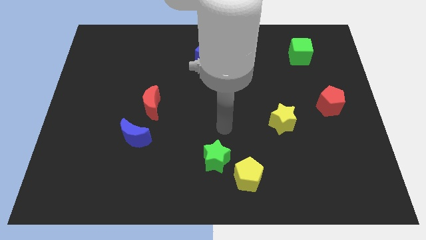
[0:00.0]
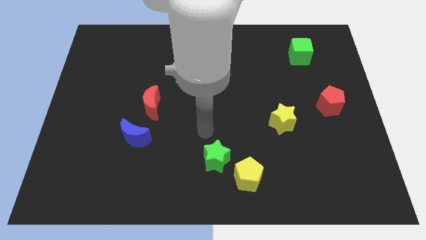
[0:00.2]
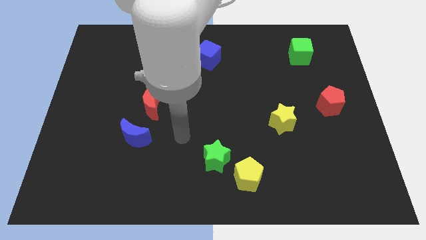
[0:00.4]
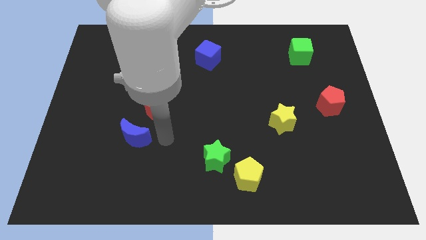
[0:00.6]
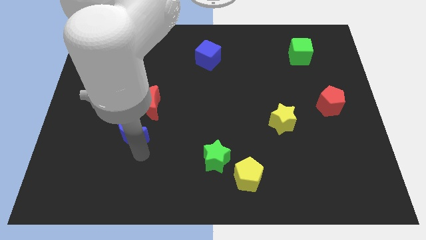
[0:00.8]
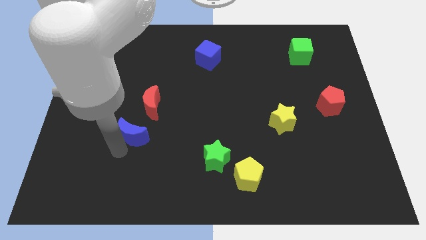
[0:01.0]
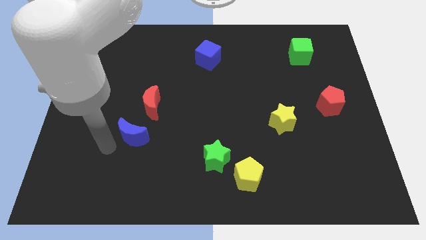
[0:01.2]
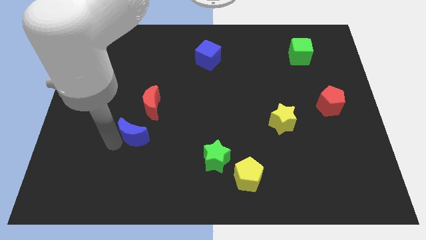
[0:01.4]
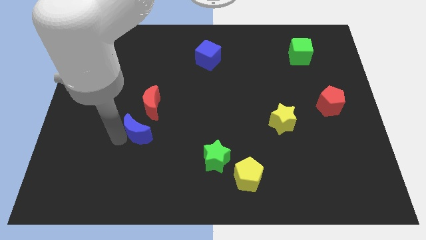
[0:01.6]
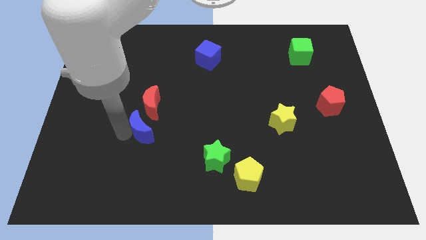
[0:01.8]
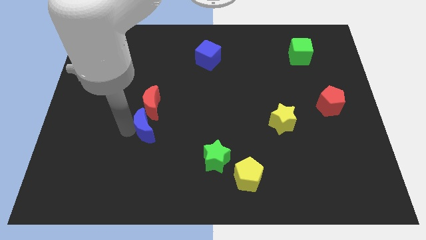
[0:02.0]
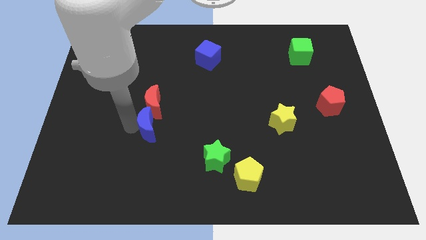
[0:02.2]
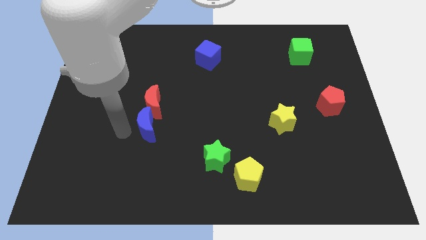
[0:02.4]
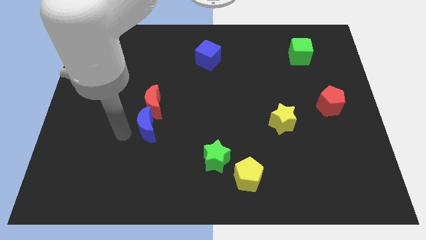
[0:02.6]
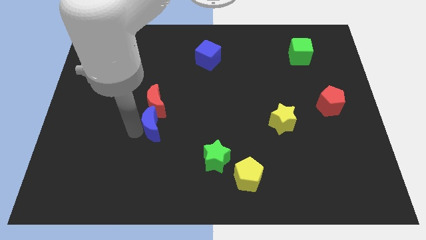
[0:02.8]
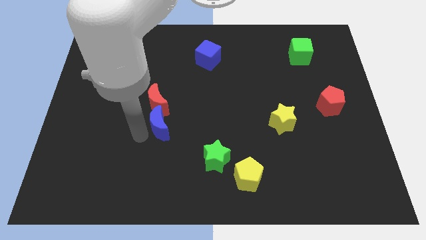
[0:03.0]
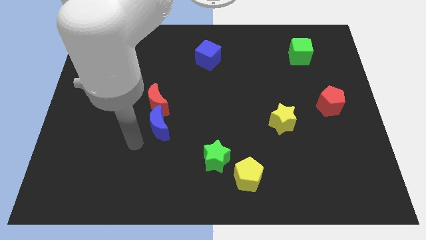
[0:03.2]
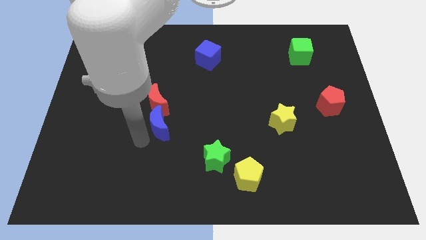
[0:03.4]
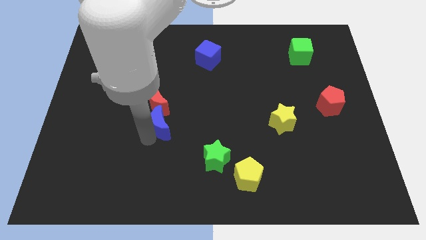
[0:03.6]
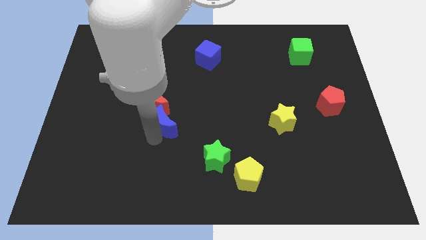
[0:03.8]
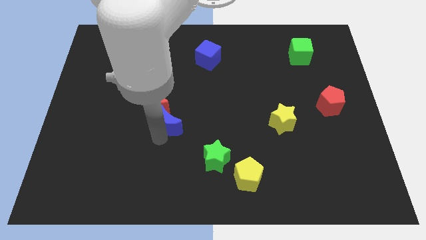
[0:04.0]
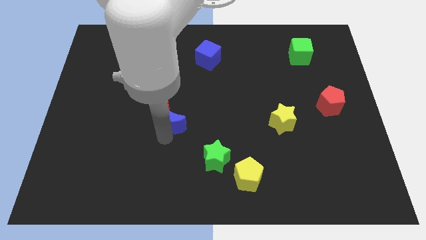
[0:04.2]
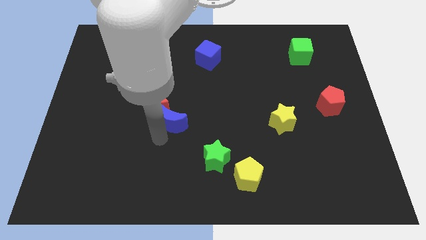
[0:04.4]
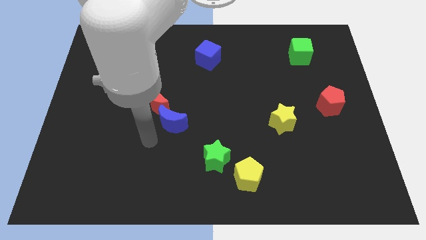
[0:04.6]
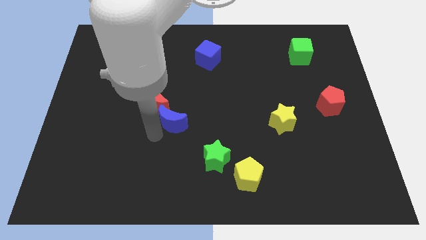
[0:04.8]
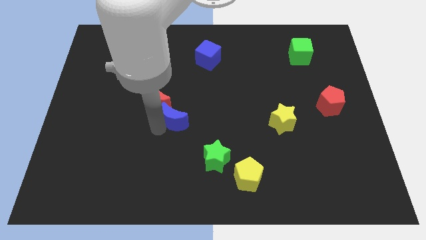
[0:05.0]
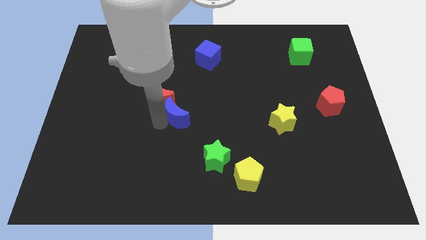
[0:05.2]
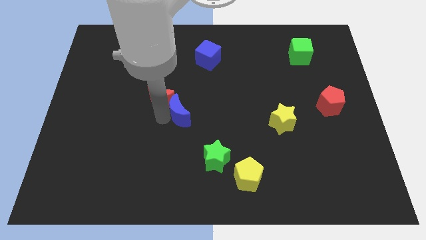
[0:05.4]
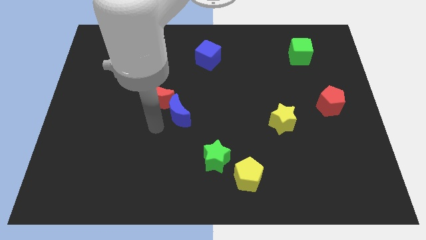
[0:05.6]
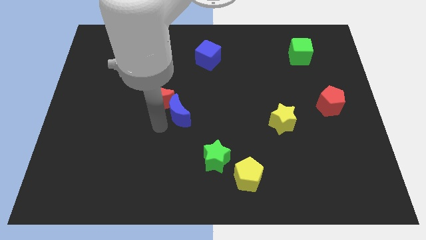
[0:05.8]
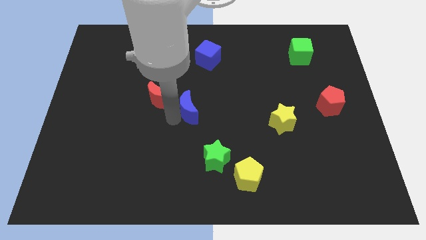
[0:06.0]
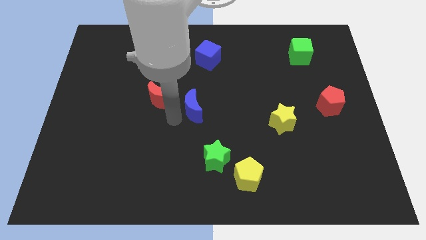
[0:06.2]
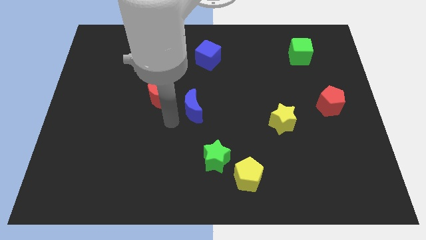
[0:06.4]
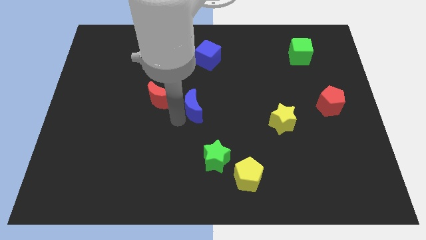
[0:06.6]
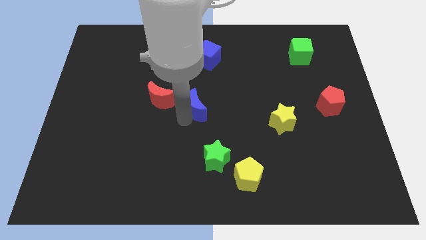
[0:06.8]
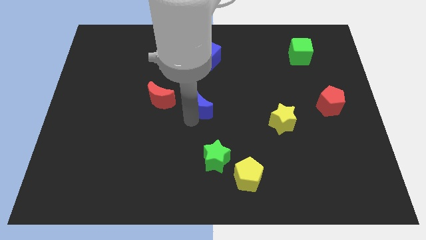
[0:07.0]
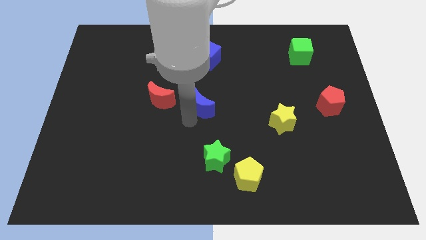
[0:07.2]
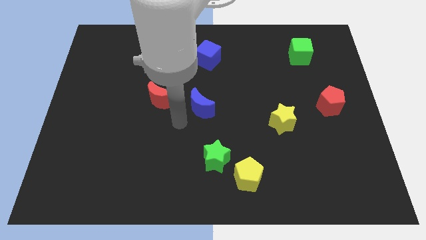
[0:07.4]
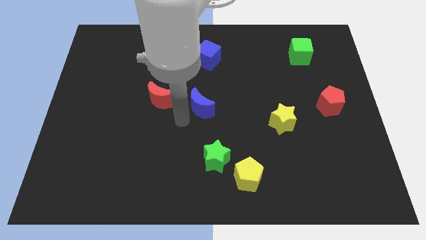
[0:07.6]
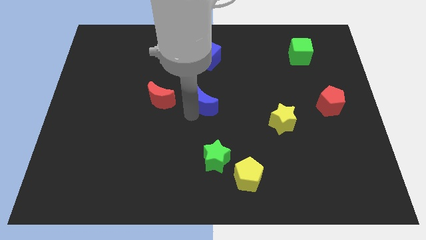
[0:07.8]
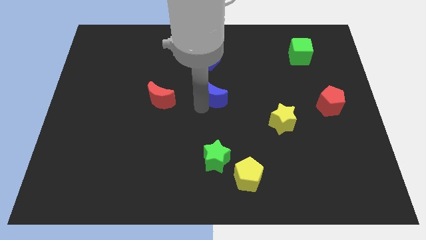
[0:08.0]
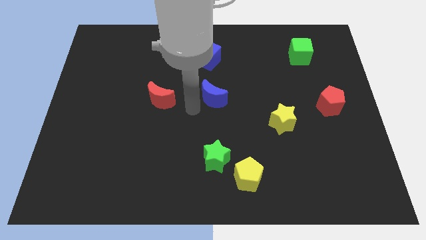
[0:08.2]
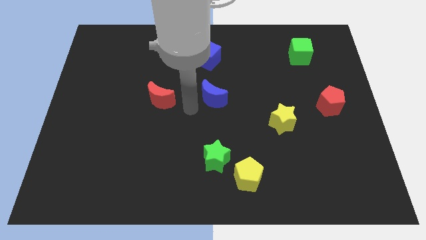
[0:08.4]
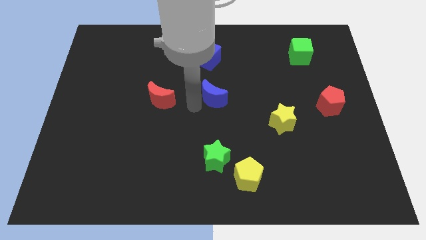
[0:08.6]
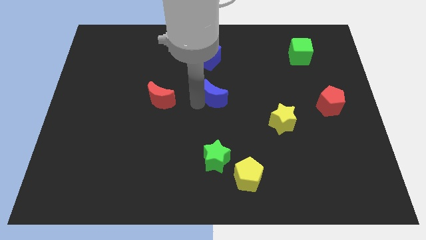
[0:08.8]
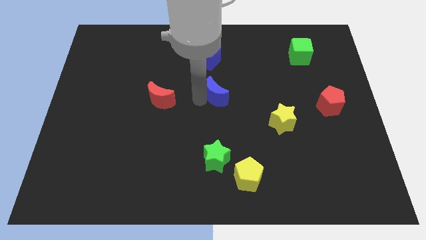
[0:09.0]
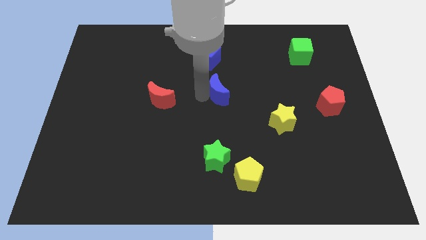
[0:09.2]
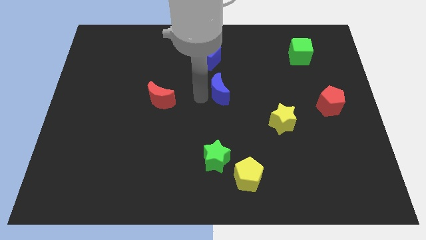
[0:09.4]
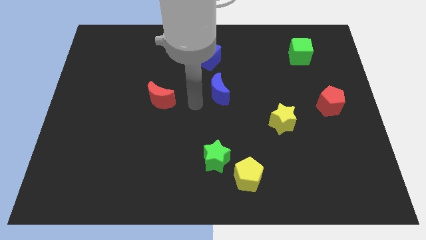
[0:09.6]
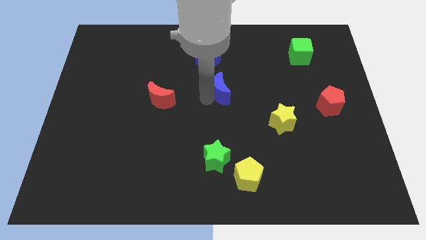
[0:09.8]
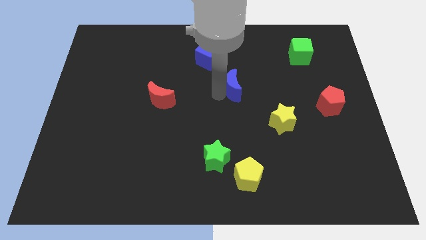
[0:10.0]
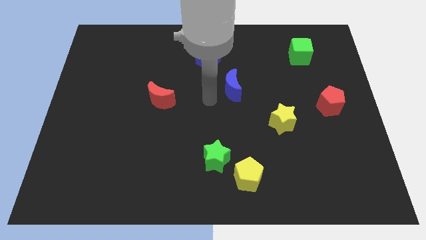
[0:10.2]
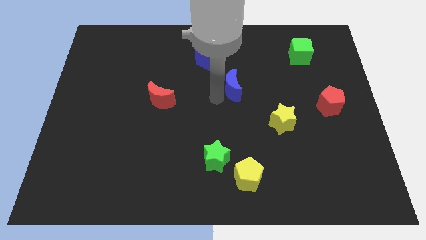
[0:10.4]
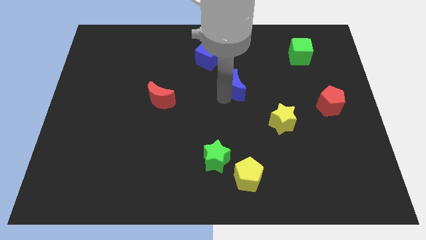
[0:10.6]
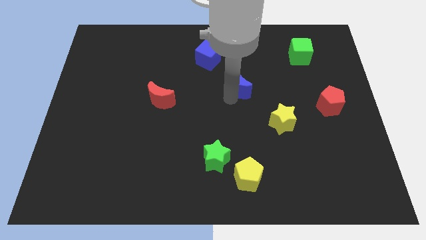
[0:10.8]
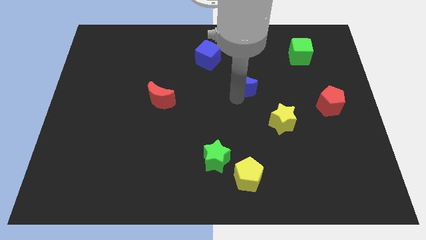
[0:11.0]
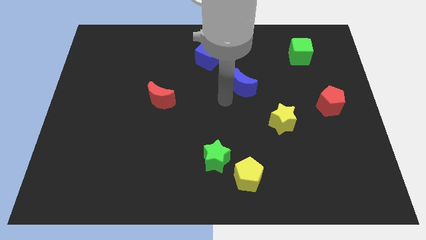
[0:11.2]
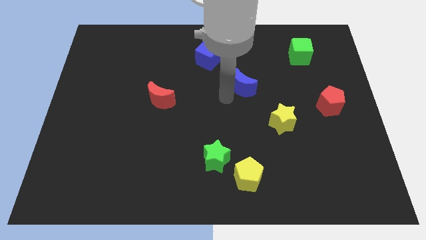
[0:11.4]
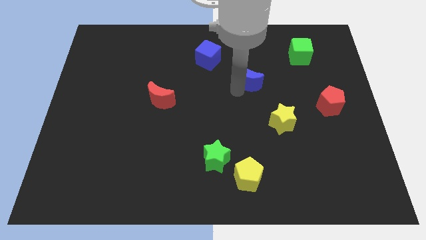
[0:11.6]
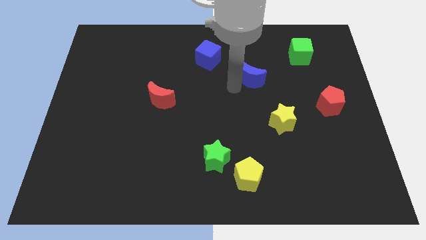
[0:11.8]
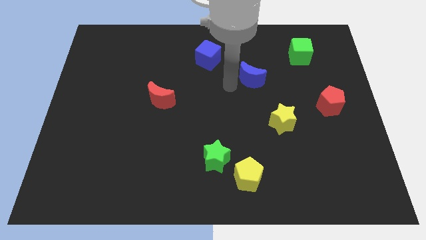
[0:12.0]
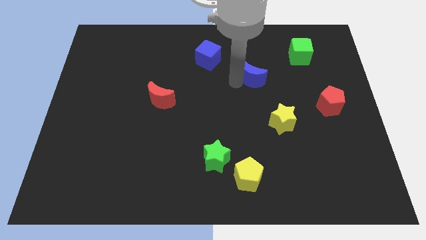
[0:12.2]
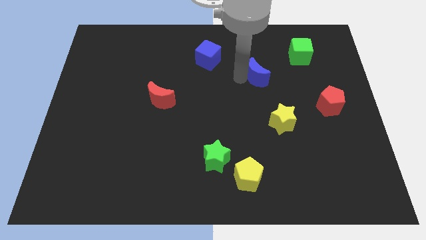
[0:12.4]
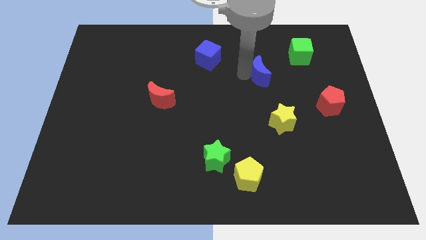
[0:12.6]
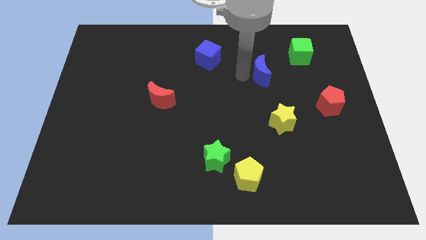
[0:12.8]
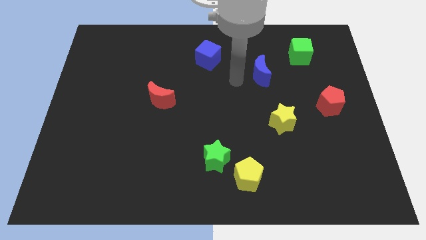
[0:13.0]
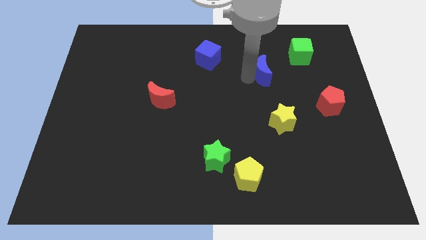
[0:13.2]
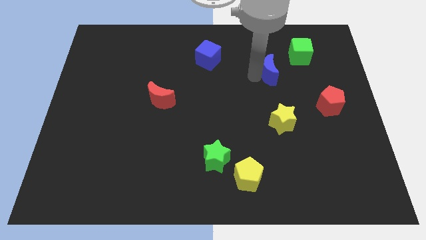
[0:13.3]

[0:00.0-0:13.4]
slide the blue moon to the bottom left of the green cube
